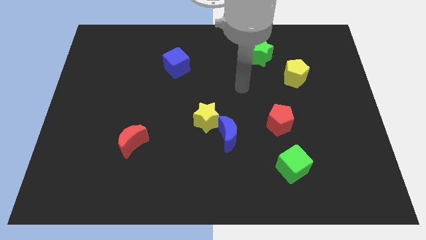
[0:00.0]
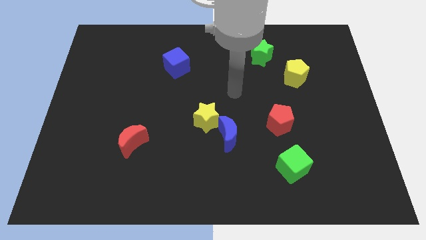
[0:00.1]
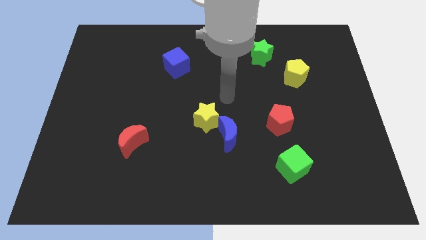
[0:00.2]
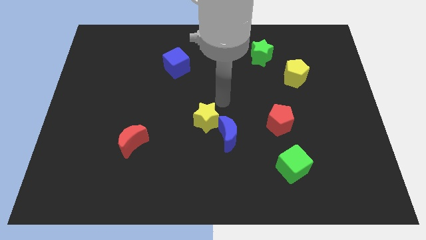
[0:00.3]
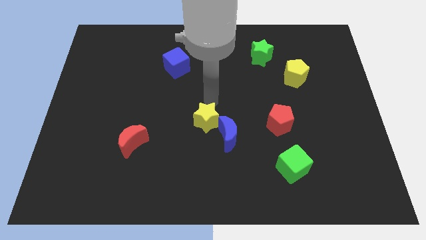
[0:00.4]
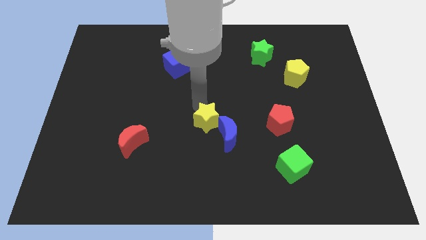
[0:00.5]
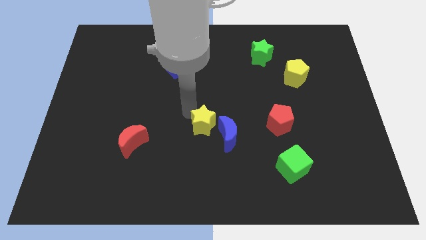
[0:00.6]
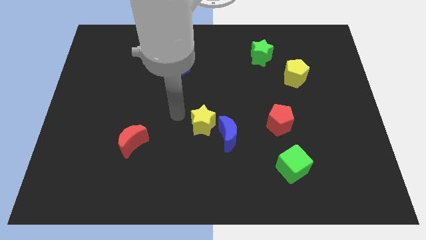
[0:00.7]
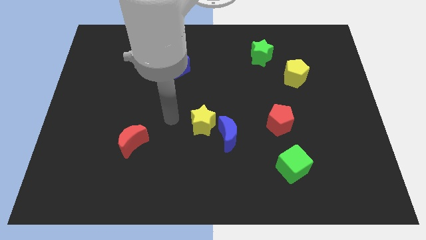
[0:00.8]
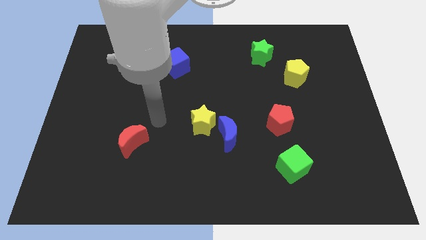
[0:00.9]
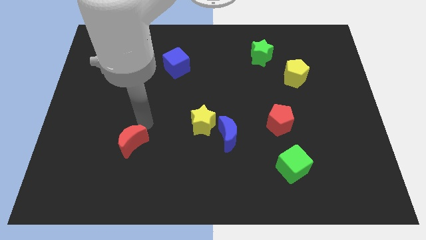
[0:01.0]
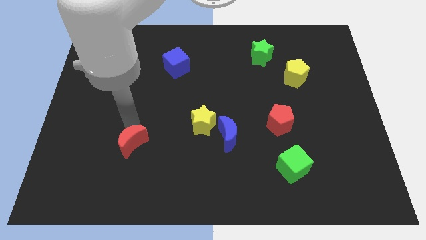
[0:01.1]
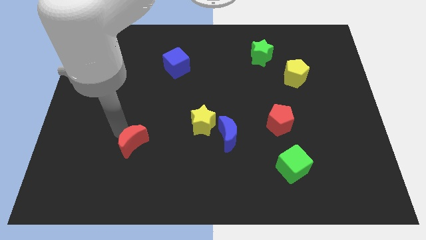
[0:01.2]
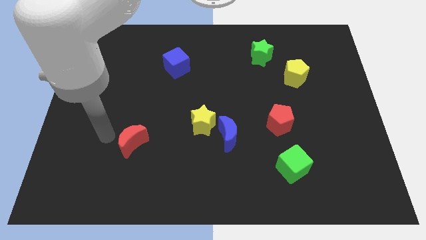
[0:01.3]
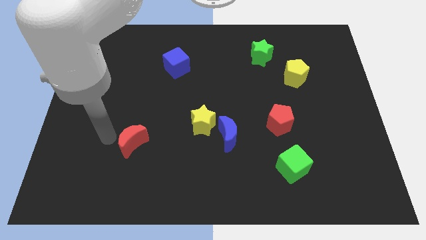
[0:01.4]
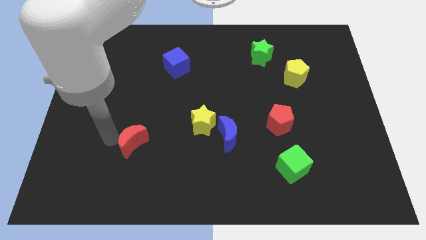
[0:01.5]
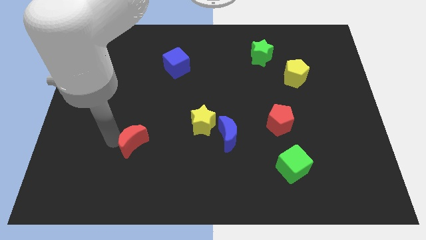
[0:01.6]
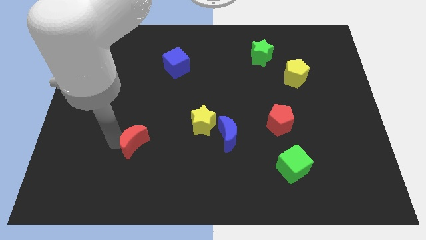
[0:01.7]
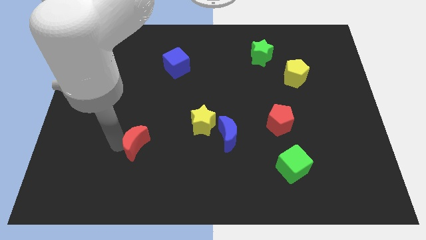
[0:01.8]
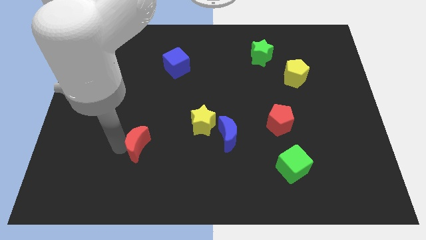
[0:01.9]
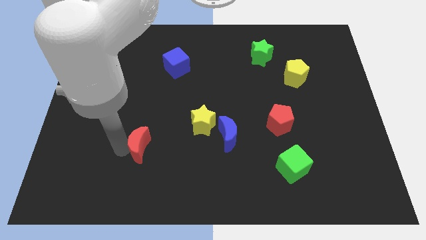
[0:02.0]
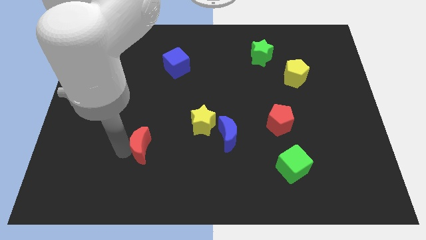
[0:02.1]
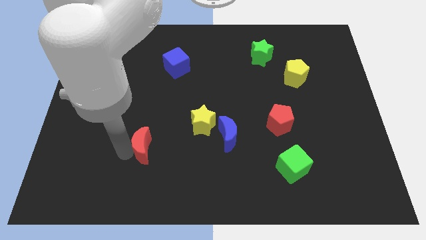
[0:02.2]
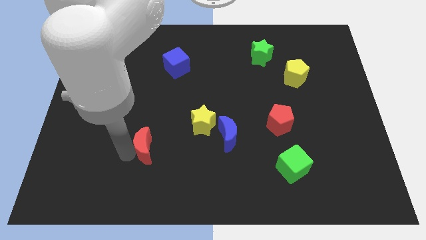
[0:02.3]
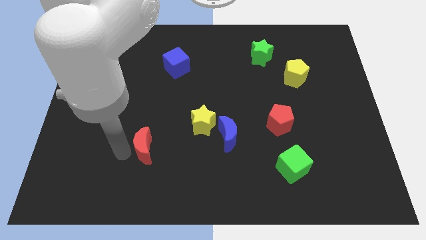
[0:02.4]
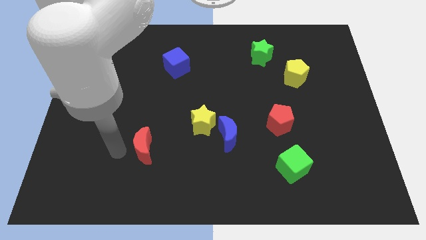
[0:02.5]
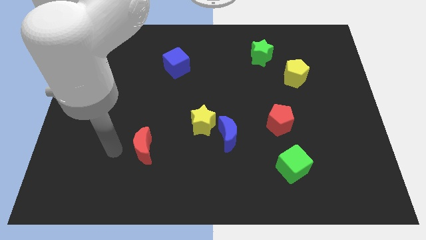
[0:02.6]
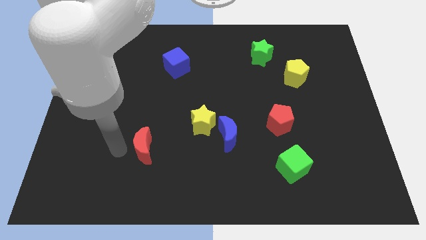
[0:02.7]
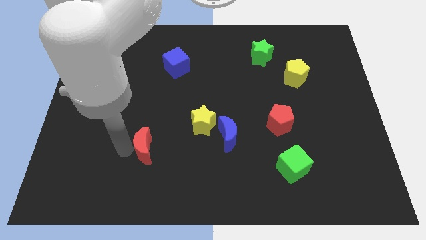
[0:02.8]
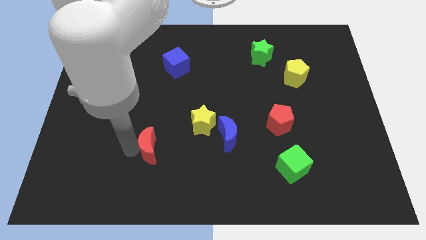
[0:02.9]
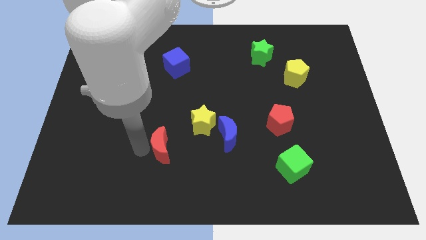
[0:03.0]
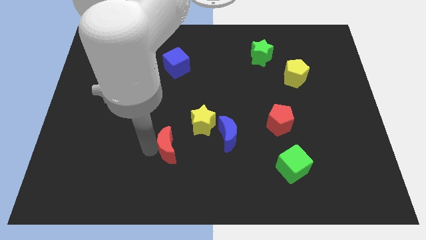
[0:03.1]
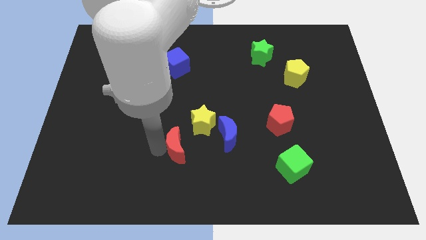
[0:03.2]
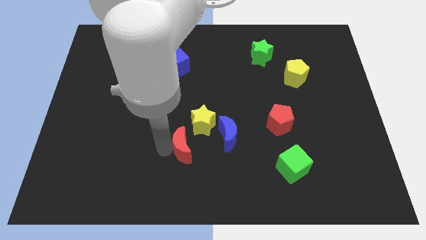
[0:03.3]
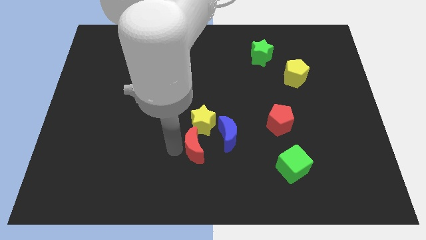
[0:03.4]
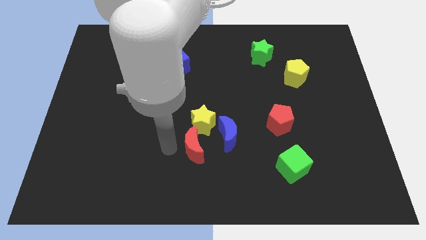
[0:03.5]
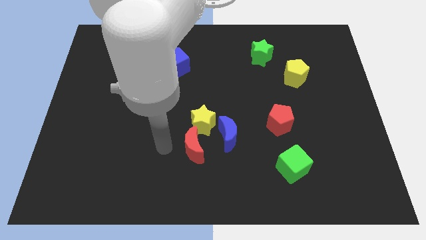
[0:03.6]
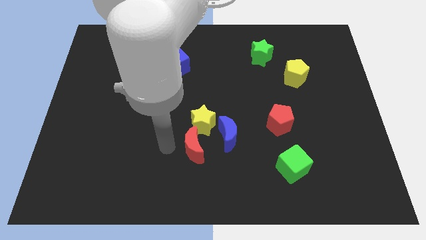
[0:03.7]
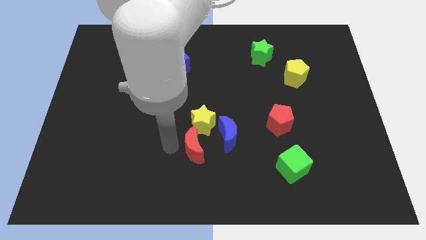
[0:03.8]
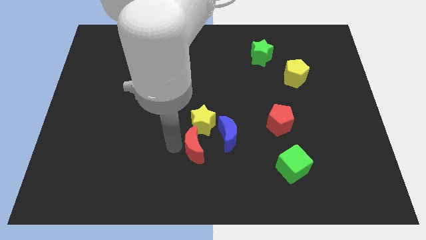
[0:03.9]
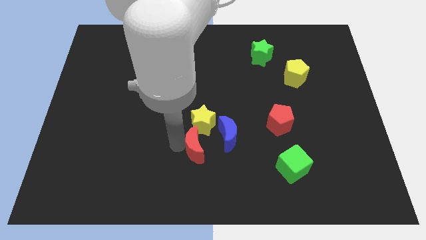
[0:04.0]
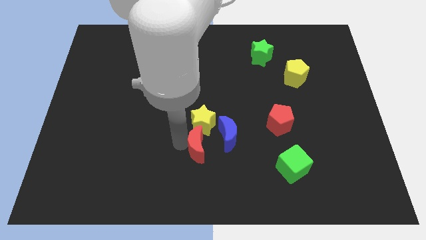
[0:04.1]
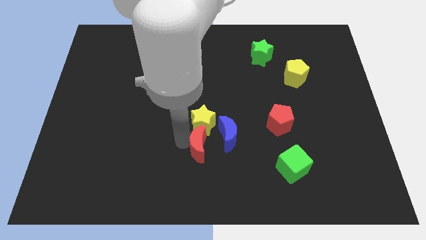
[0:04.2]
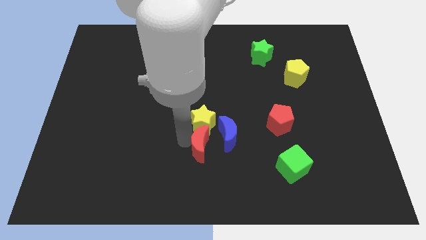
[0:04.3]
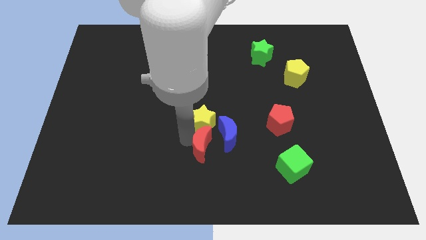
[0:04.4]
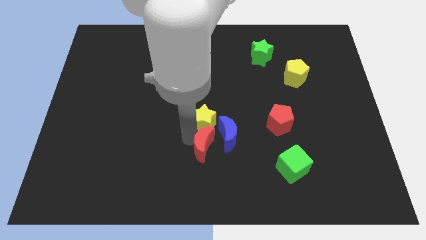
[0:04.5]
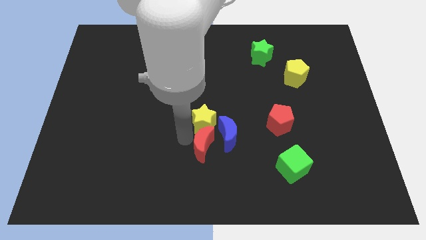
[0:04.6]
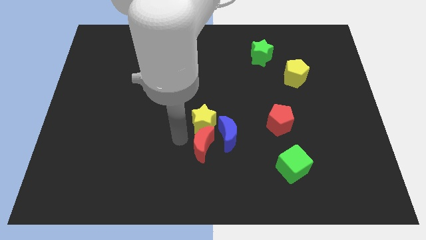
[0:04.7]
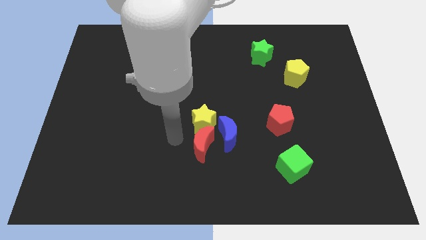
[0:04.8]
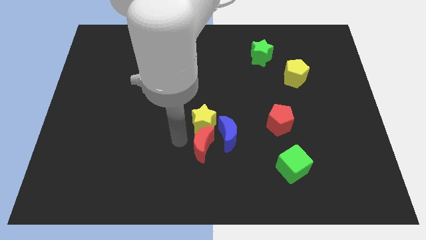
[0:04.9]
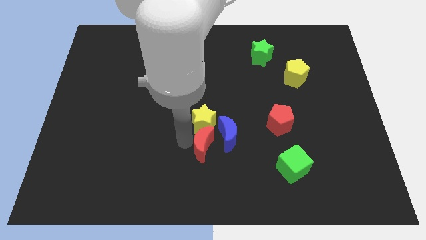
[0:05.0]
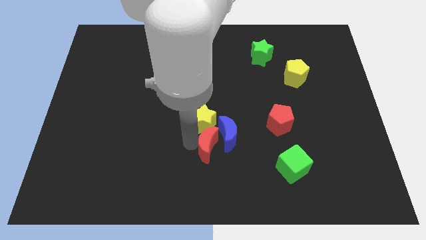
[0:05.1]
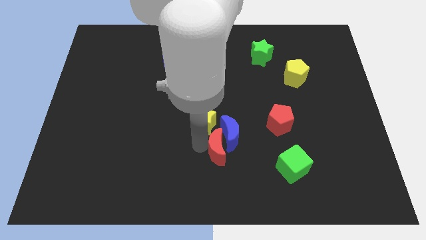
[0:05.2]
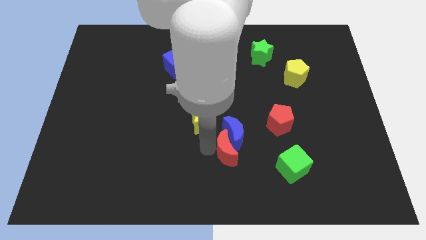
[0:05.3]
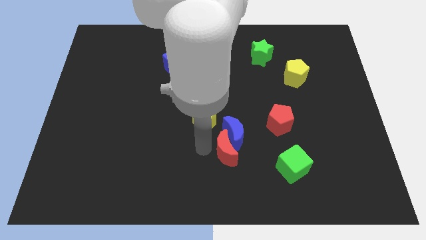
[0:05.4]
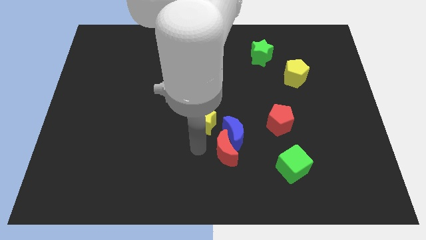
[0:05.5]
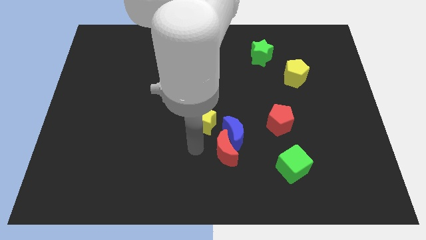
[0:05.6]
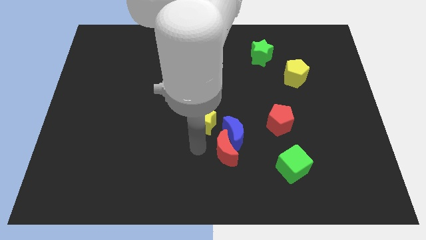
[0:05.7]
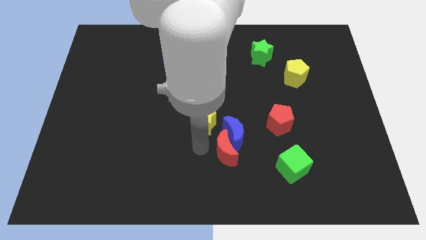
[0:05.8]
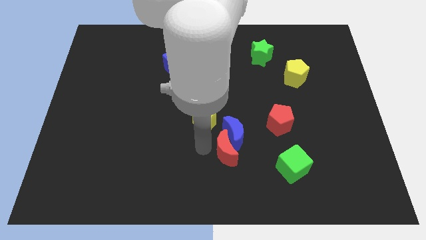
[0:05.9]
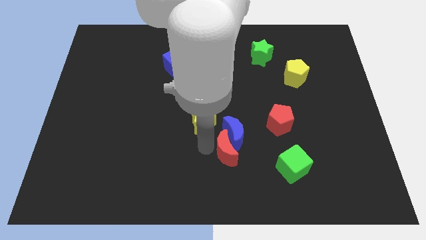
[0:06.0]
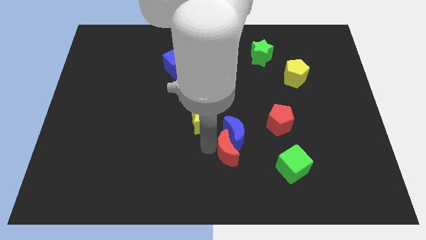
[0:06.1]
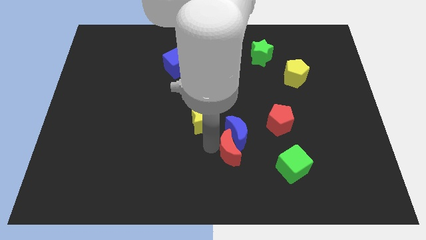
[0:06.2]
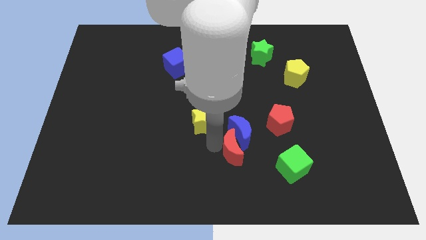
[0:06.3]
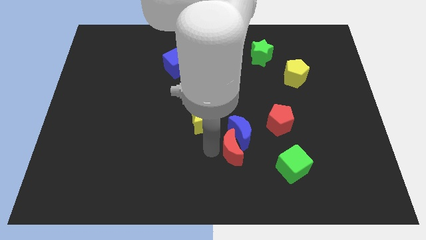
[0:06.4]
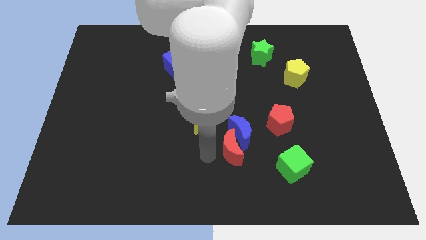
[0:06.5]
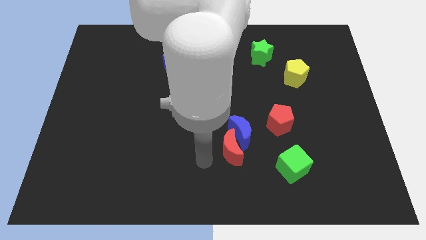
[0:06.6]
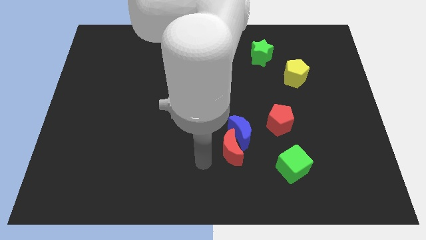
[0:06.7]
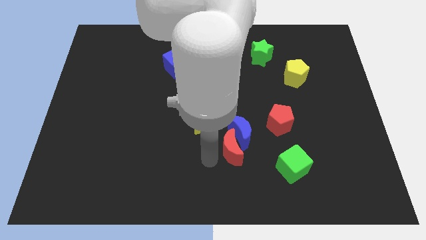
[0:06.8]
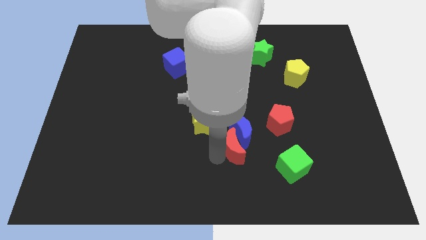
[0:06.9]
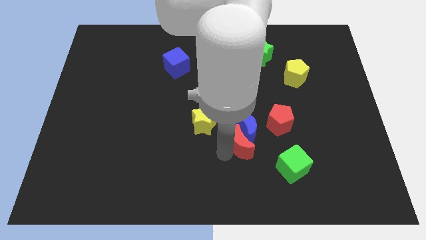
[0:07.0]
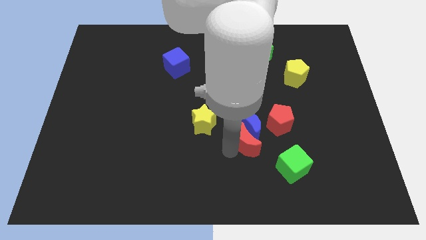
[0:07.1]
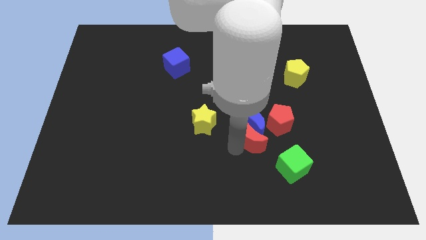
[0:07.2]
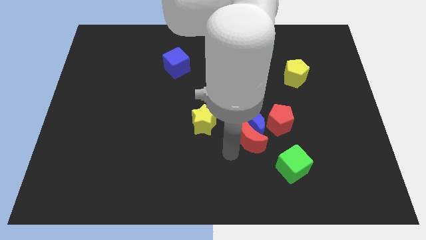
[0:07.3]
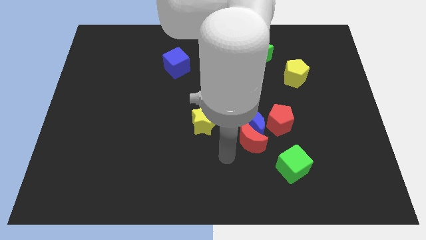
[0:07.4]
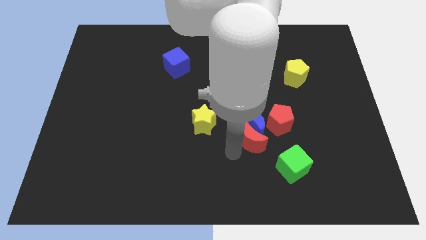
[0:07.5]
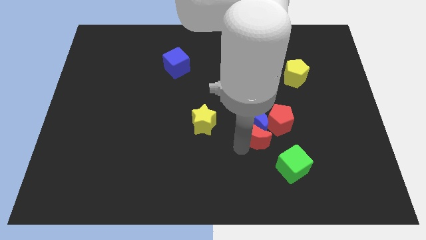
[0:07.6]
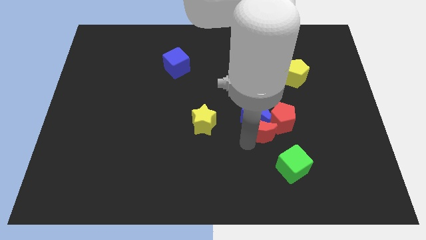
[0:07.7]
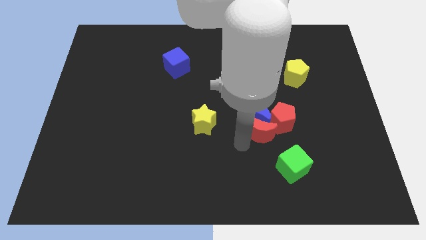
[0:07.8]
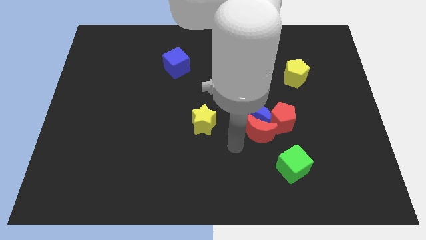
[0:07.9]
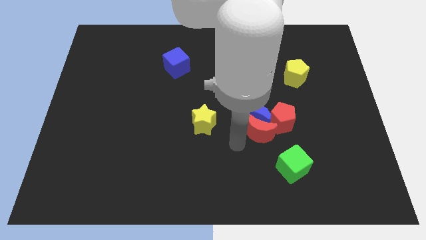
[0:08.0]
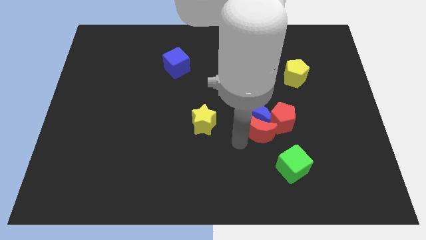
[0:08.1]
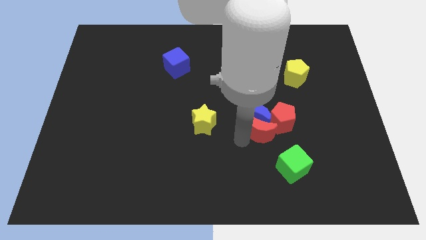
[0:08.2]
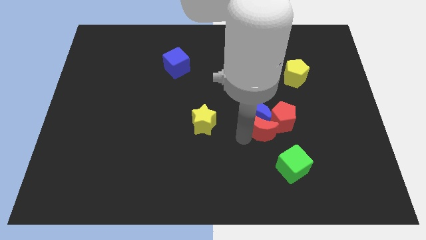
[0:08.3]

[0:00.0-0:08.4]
push the red moon to the red pentagon
